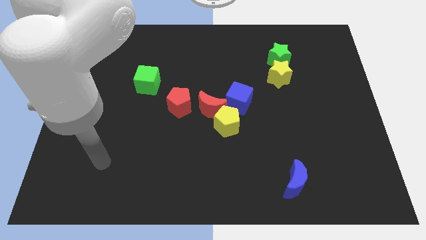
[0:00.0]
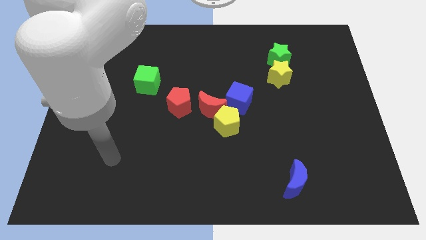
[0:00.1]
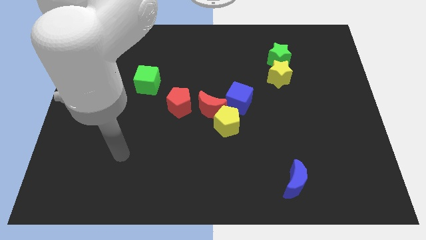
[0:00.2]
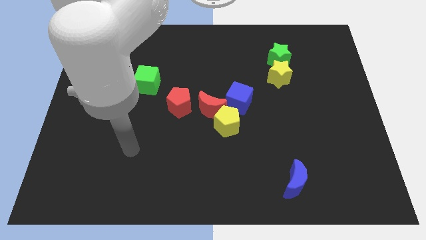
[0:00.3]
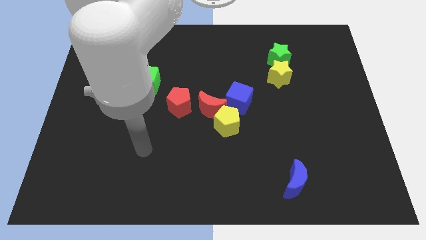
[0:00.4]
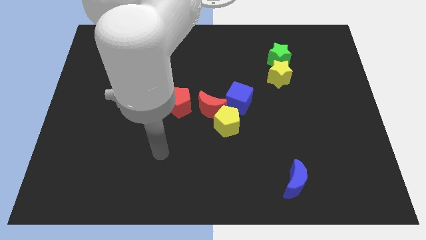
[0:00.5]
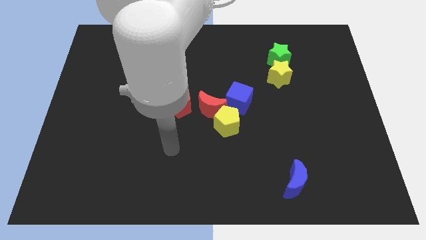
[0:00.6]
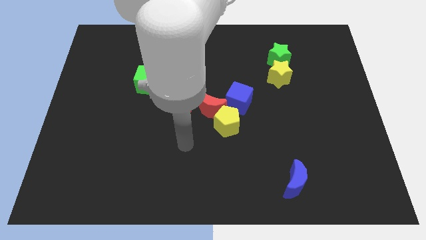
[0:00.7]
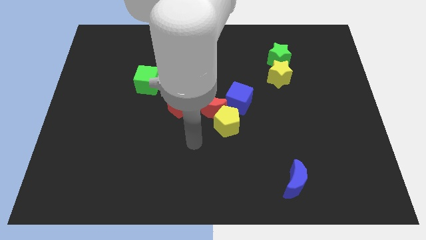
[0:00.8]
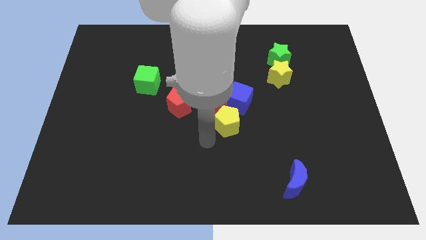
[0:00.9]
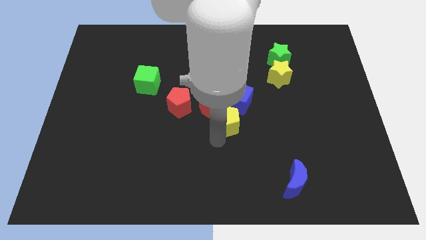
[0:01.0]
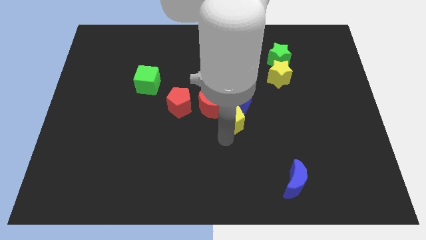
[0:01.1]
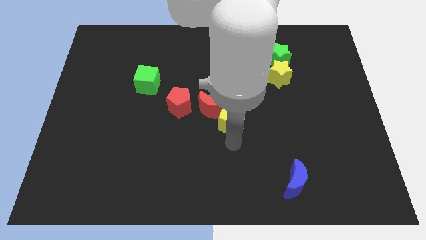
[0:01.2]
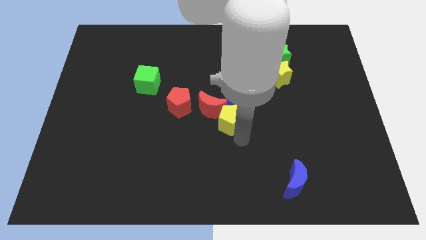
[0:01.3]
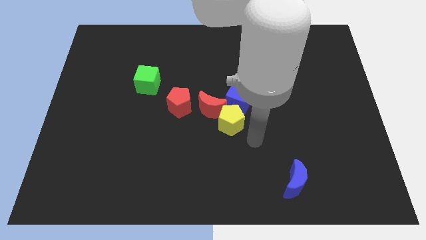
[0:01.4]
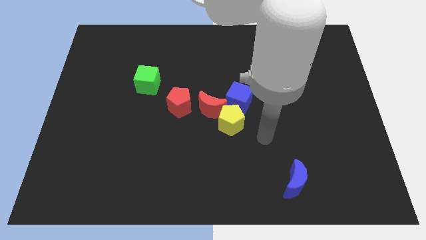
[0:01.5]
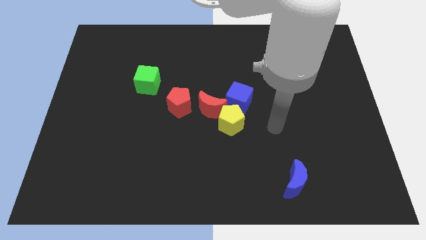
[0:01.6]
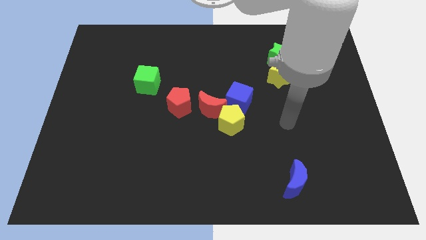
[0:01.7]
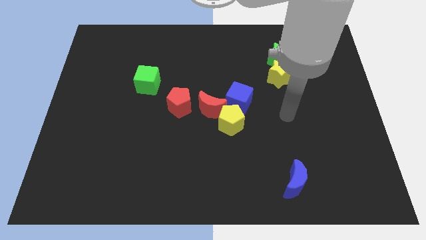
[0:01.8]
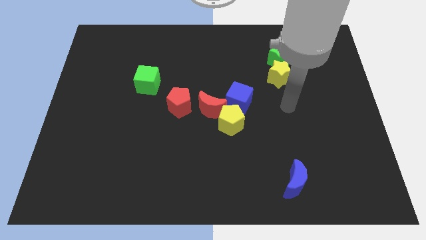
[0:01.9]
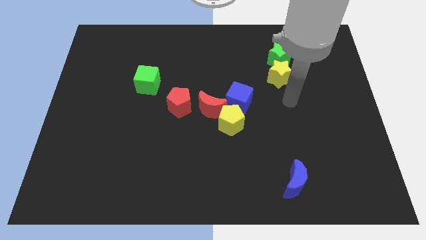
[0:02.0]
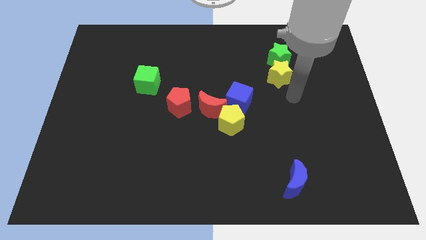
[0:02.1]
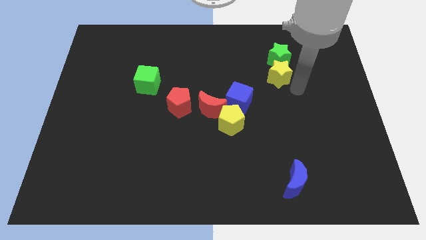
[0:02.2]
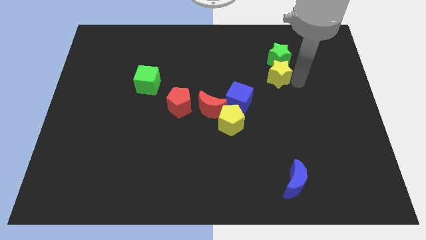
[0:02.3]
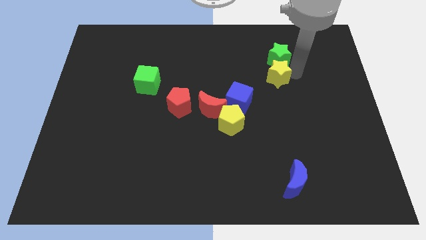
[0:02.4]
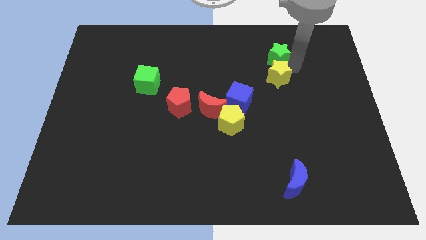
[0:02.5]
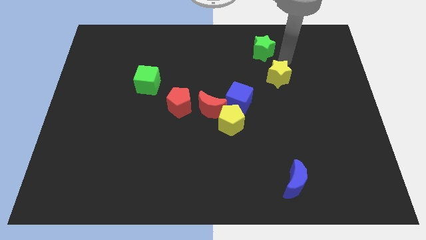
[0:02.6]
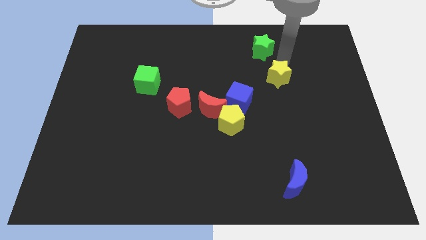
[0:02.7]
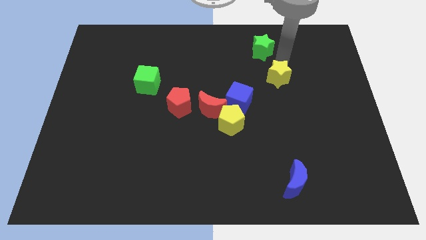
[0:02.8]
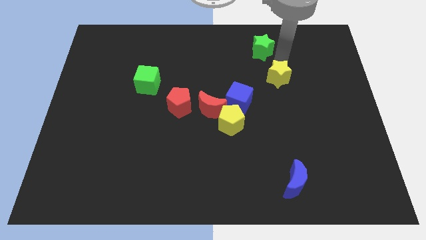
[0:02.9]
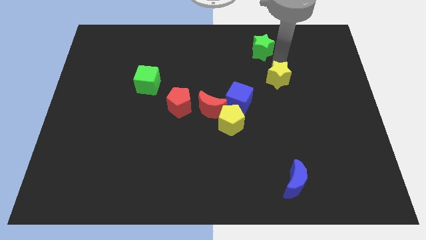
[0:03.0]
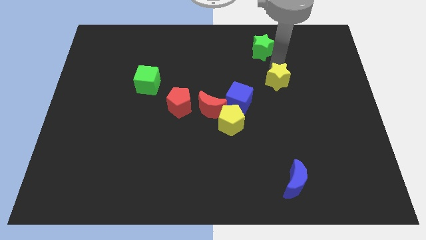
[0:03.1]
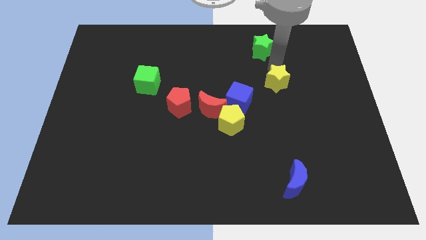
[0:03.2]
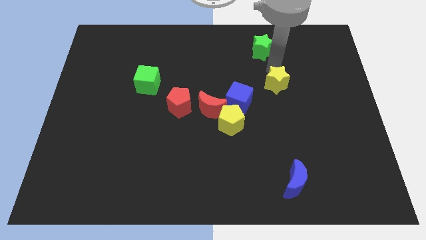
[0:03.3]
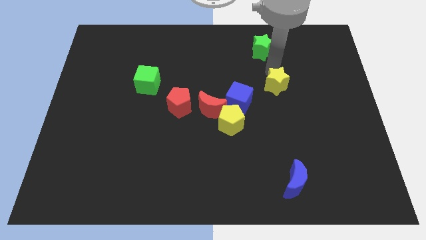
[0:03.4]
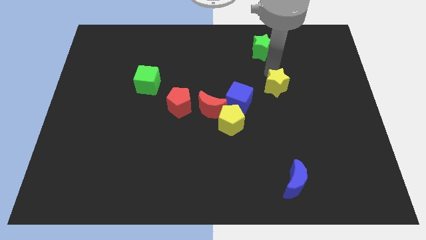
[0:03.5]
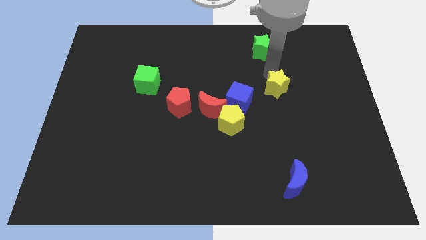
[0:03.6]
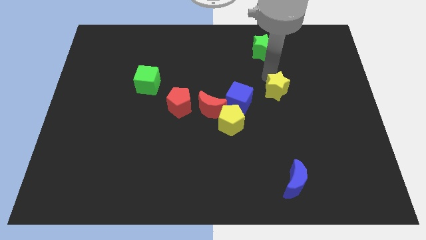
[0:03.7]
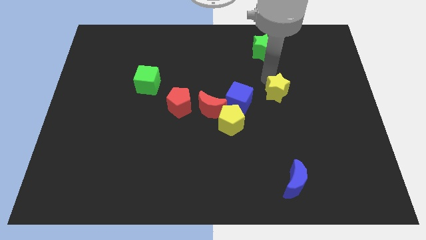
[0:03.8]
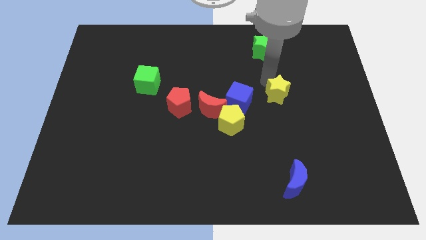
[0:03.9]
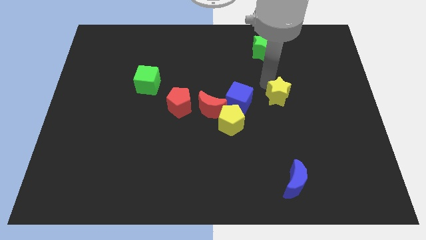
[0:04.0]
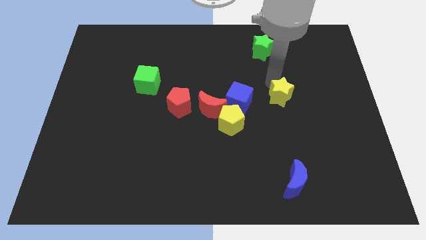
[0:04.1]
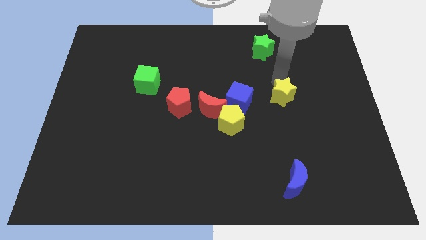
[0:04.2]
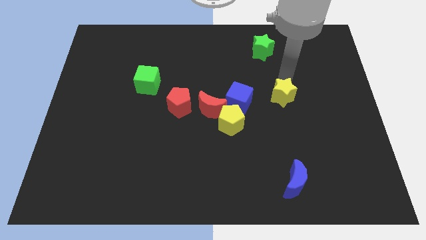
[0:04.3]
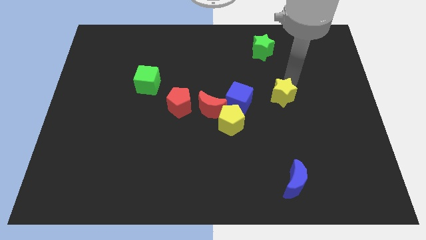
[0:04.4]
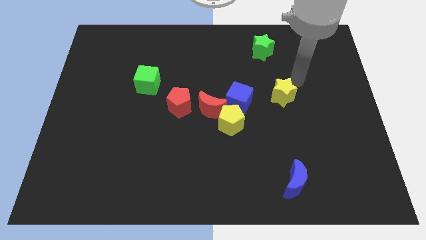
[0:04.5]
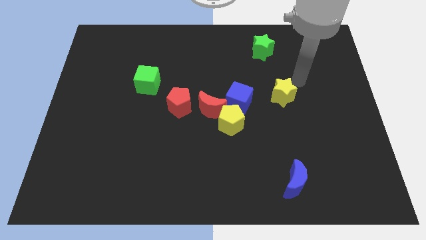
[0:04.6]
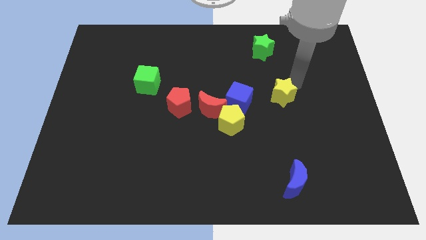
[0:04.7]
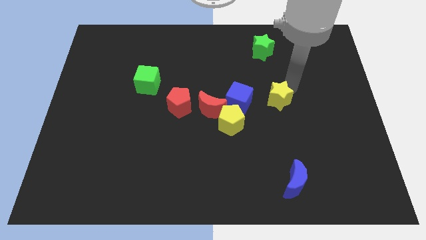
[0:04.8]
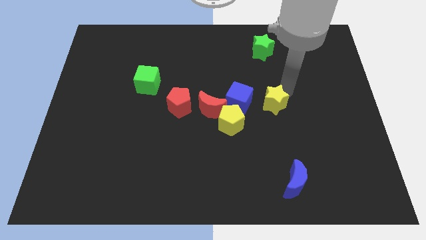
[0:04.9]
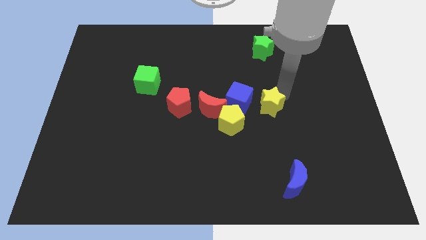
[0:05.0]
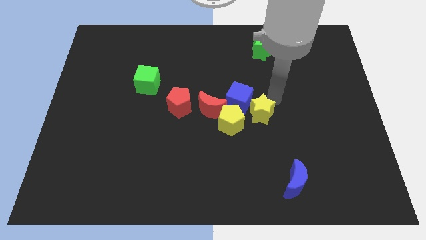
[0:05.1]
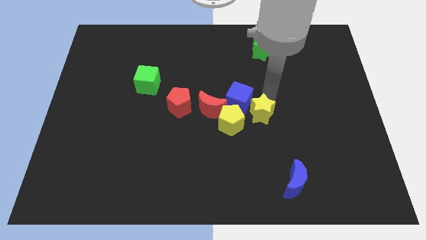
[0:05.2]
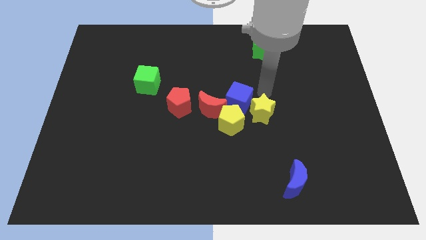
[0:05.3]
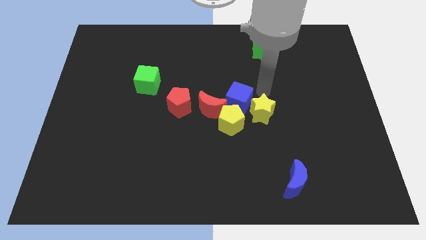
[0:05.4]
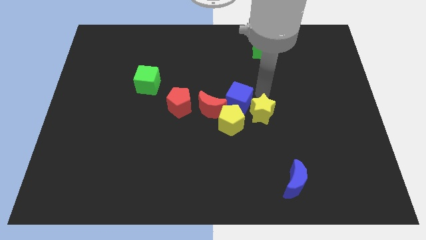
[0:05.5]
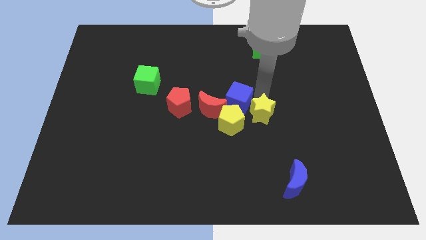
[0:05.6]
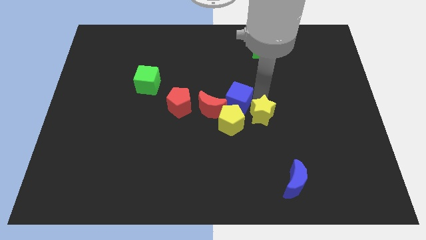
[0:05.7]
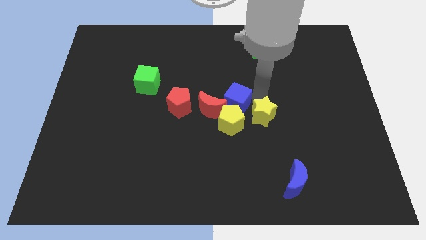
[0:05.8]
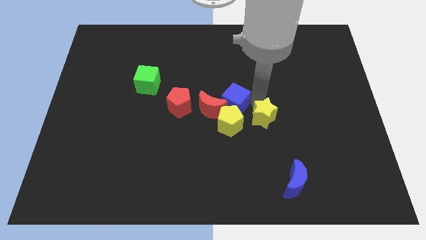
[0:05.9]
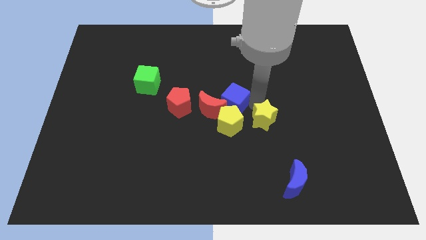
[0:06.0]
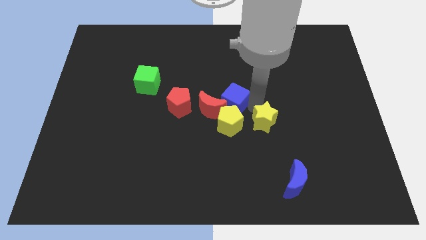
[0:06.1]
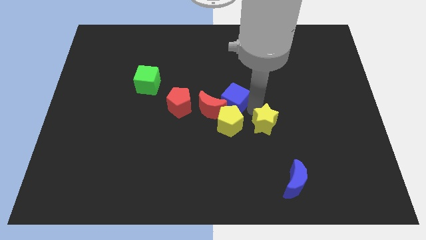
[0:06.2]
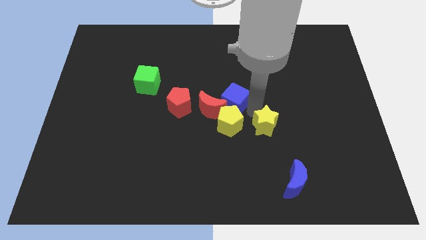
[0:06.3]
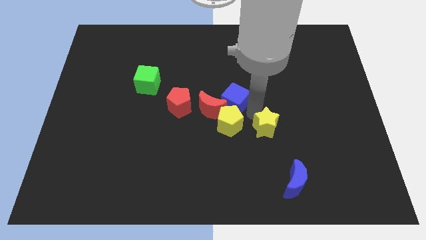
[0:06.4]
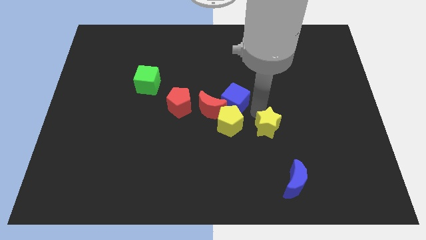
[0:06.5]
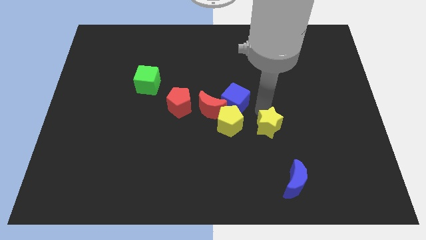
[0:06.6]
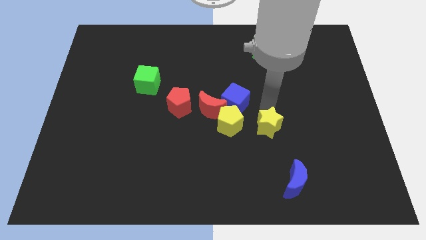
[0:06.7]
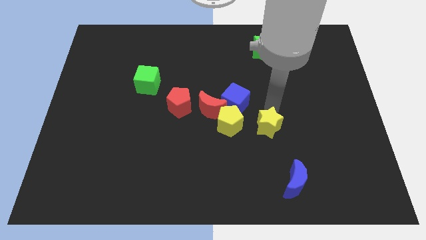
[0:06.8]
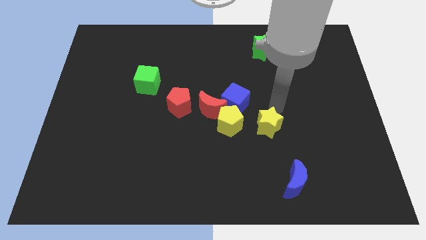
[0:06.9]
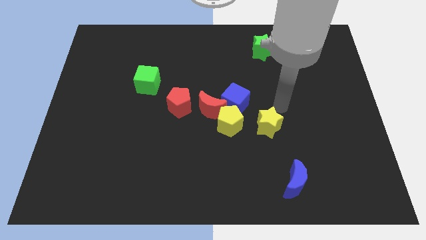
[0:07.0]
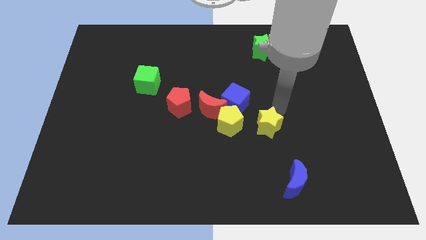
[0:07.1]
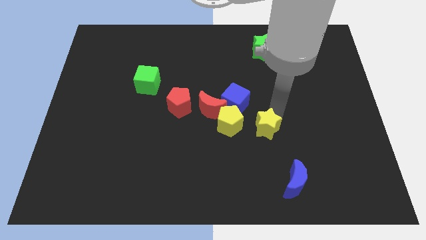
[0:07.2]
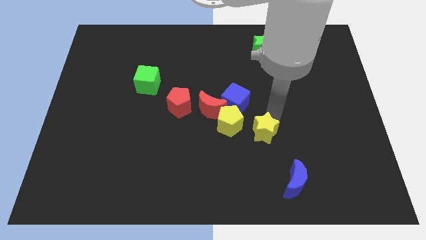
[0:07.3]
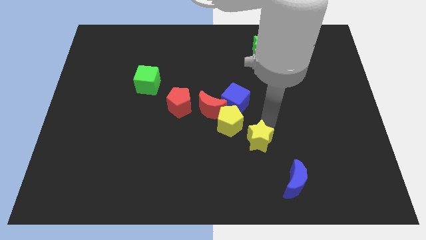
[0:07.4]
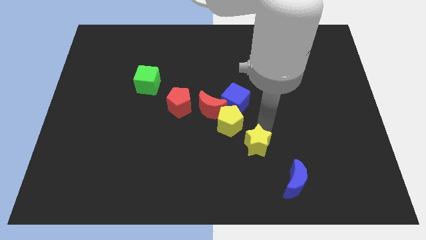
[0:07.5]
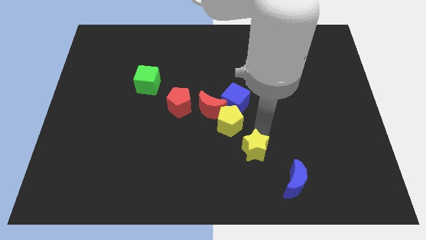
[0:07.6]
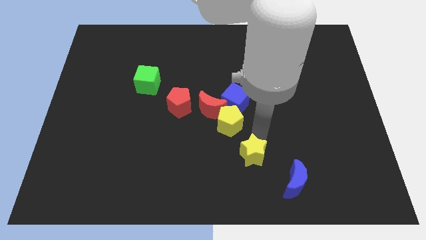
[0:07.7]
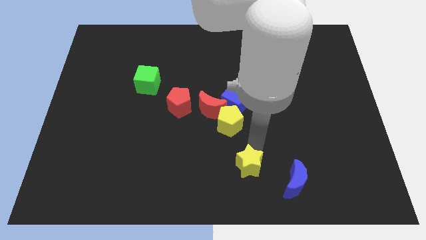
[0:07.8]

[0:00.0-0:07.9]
slide the yellow star to the bottom
